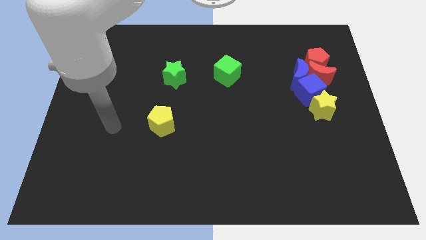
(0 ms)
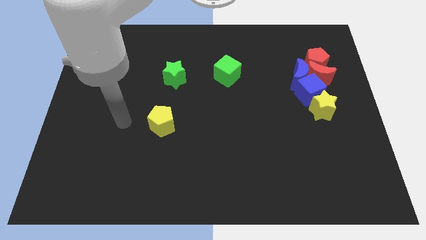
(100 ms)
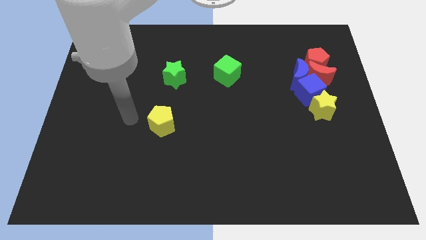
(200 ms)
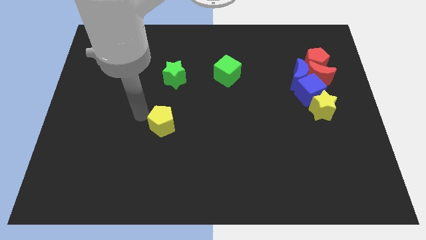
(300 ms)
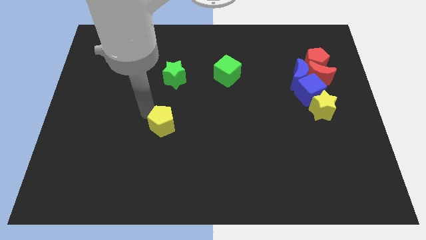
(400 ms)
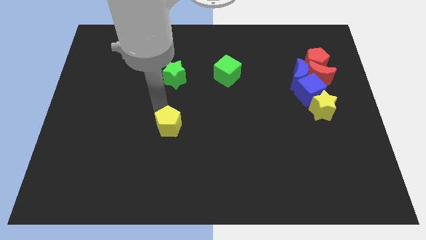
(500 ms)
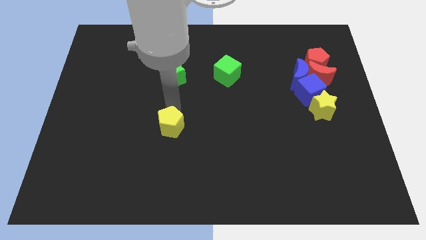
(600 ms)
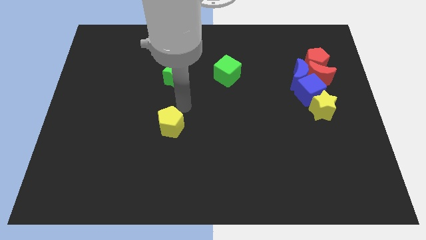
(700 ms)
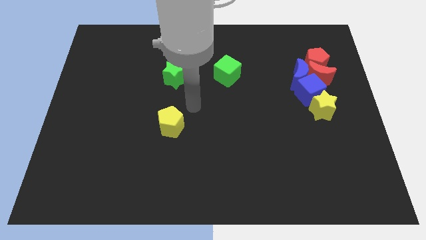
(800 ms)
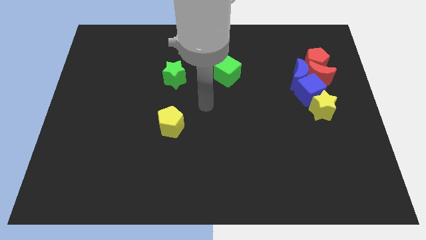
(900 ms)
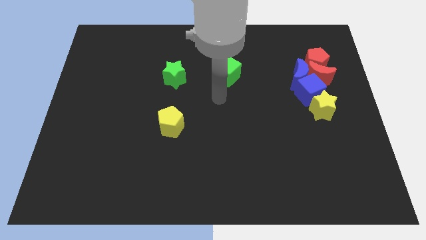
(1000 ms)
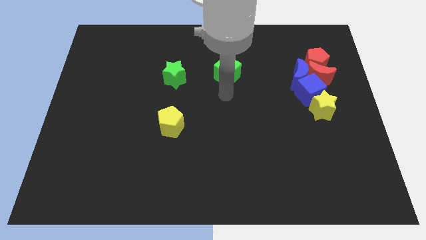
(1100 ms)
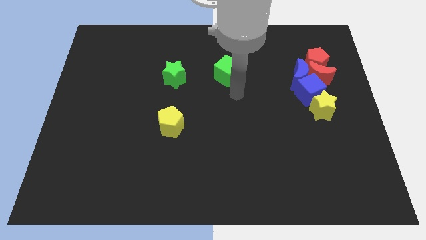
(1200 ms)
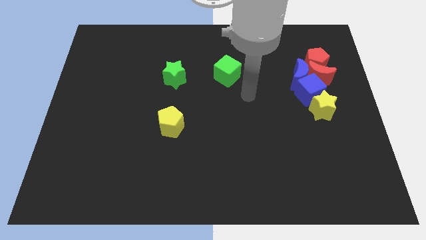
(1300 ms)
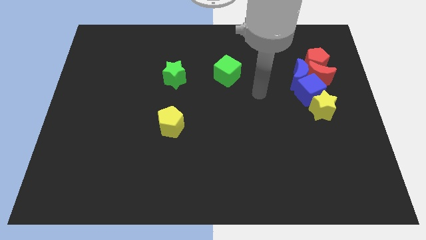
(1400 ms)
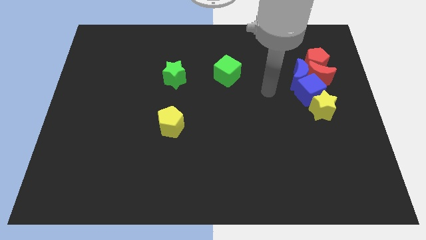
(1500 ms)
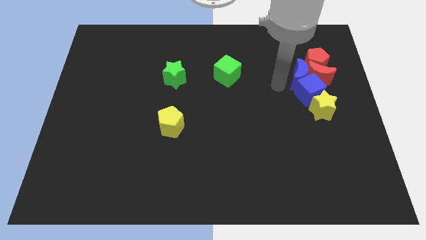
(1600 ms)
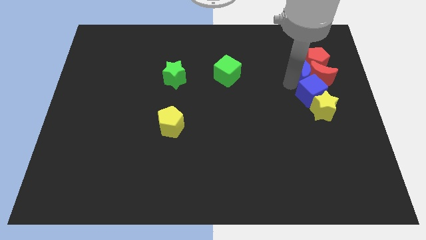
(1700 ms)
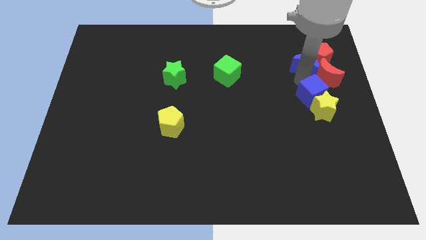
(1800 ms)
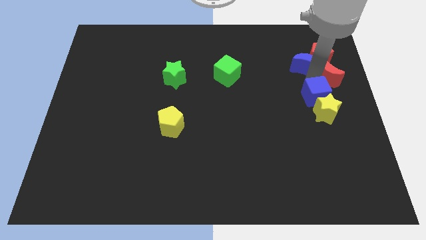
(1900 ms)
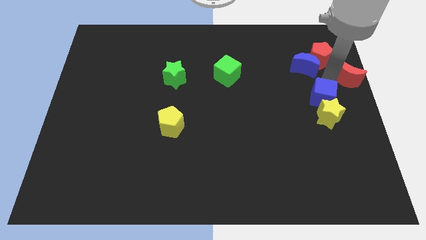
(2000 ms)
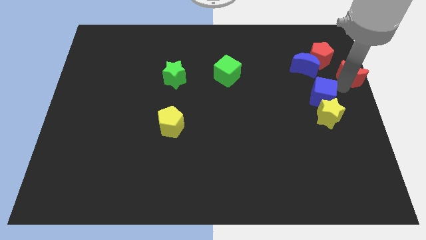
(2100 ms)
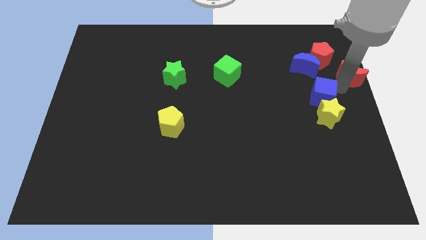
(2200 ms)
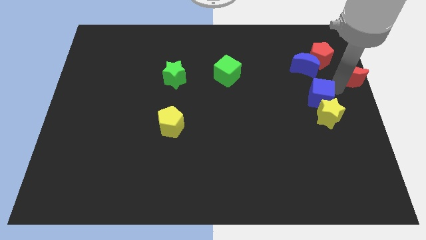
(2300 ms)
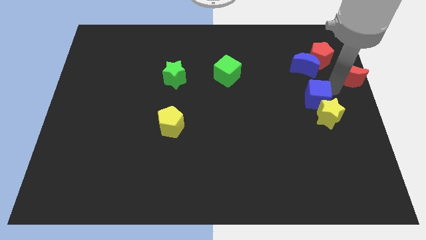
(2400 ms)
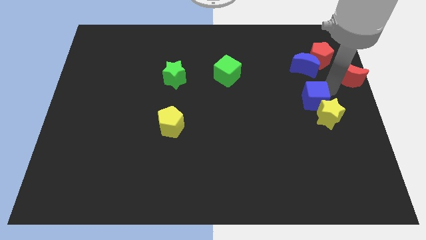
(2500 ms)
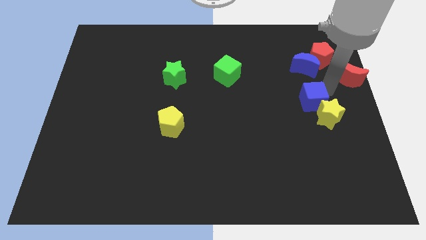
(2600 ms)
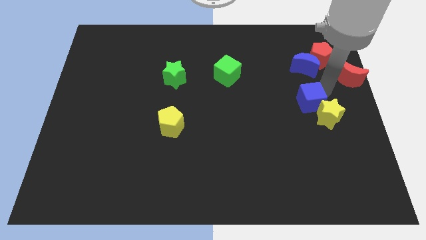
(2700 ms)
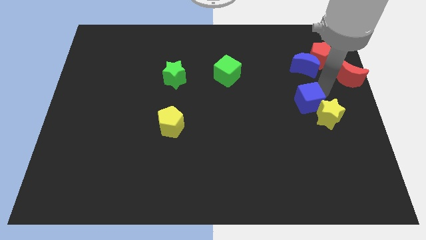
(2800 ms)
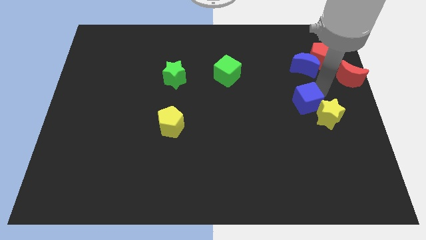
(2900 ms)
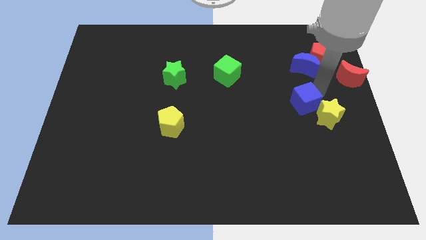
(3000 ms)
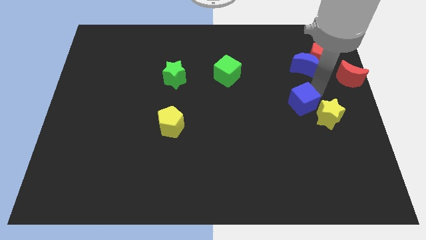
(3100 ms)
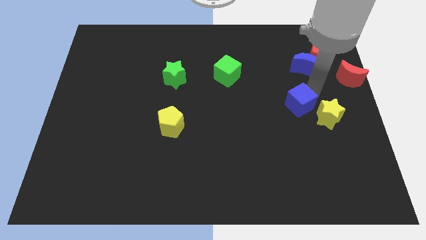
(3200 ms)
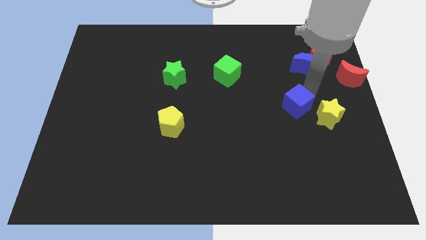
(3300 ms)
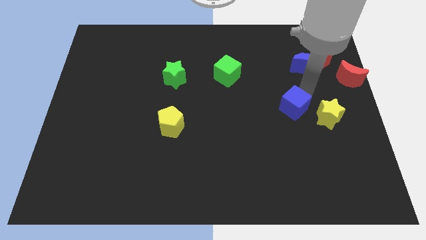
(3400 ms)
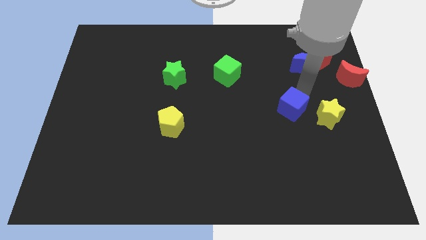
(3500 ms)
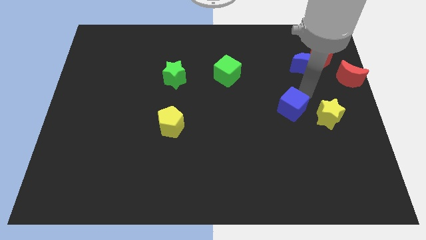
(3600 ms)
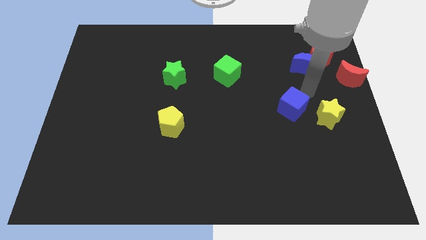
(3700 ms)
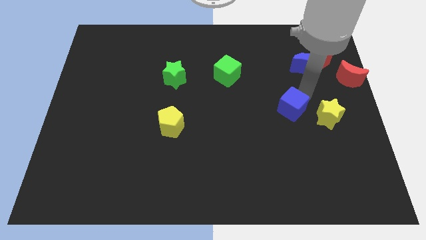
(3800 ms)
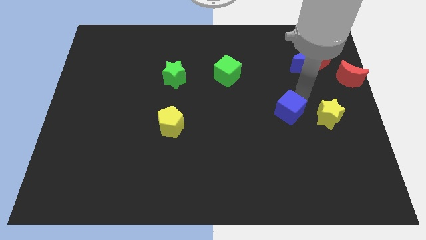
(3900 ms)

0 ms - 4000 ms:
slide the blue cube downwards and left a bit

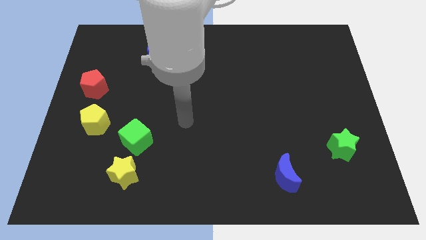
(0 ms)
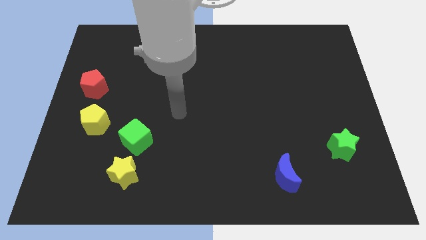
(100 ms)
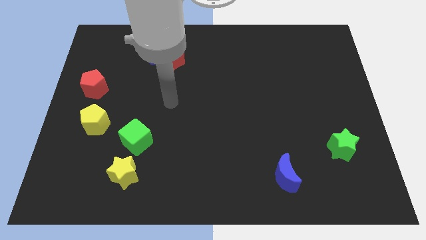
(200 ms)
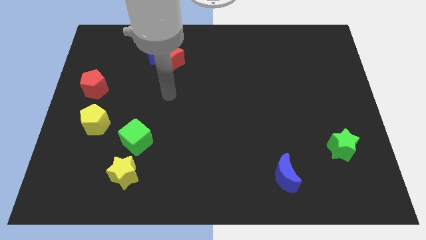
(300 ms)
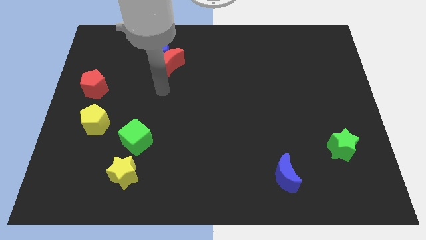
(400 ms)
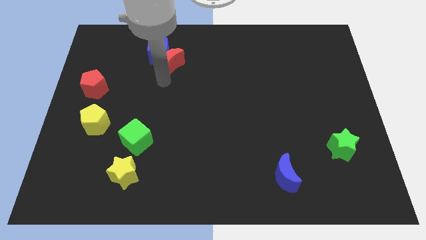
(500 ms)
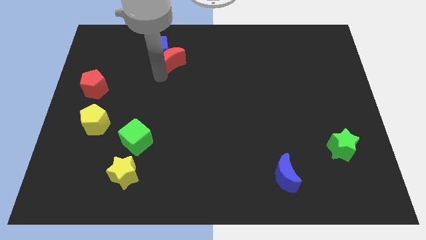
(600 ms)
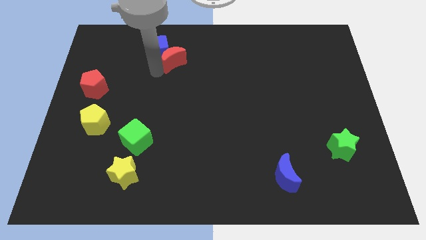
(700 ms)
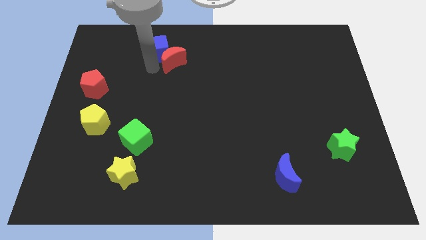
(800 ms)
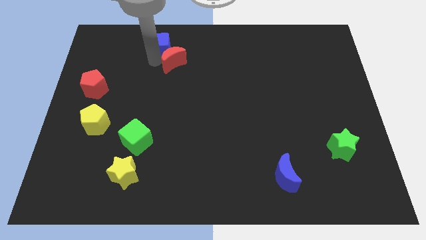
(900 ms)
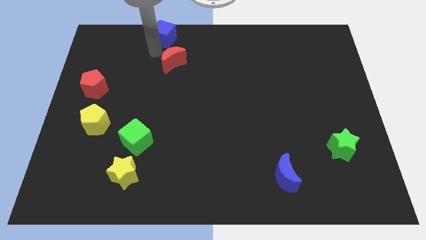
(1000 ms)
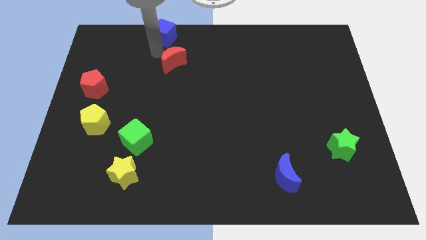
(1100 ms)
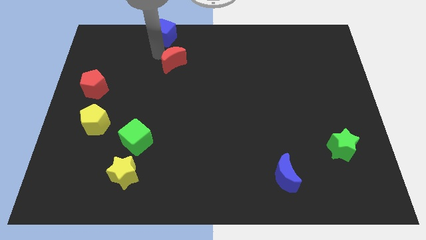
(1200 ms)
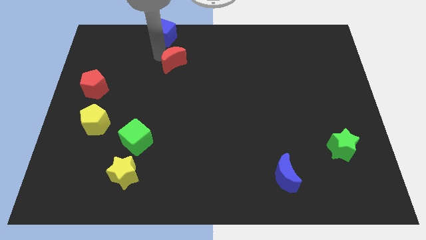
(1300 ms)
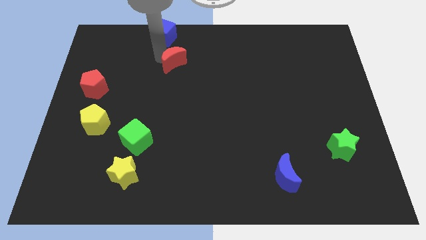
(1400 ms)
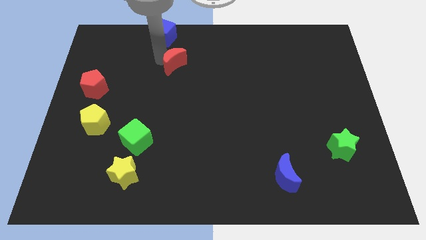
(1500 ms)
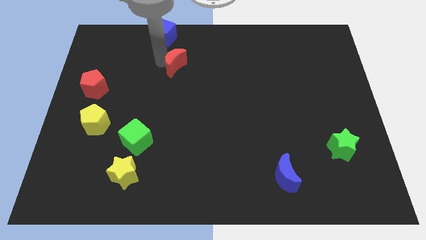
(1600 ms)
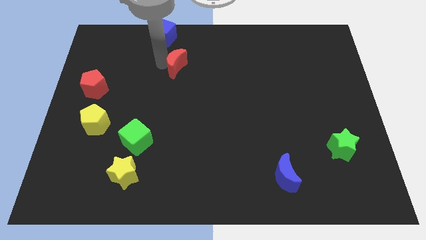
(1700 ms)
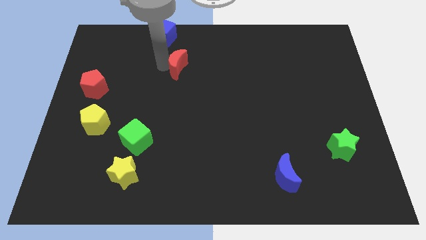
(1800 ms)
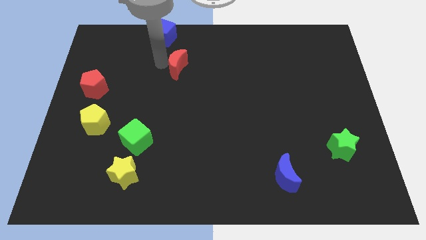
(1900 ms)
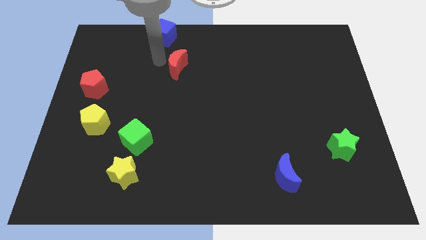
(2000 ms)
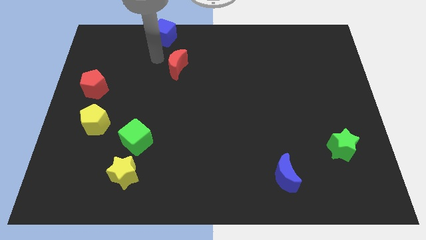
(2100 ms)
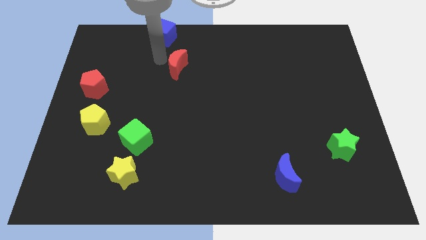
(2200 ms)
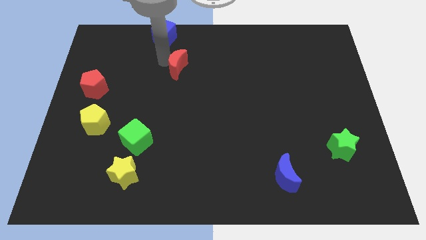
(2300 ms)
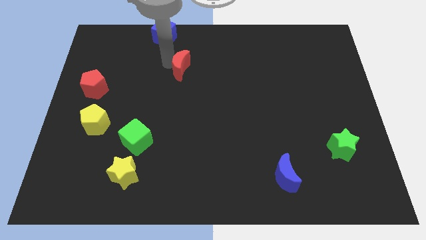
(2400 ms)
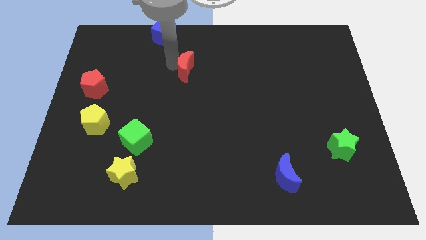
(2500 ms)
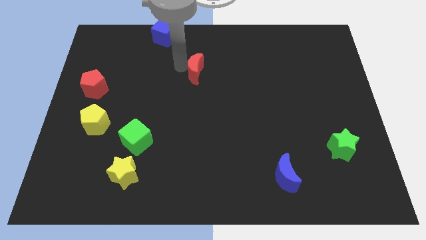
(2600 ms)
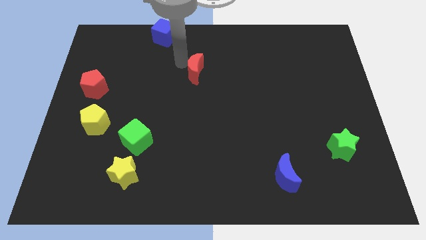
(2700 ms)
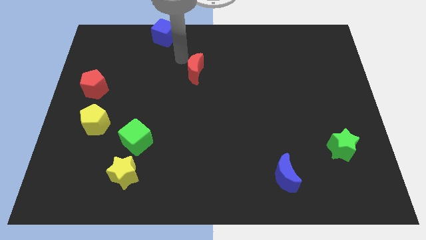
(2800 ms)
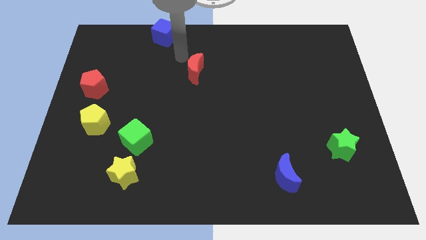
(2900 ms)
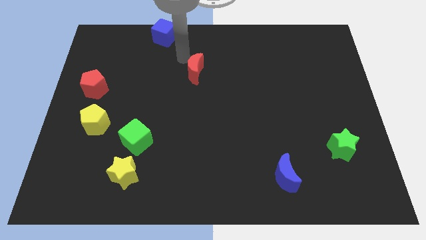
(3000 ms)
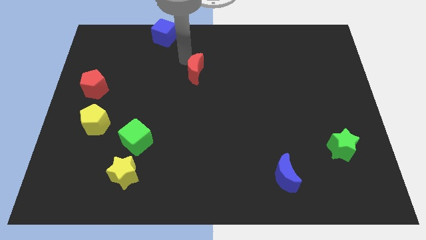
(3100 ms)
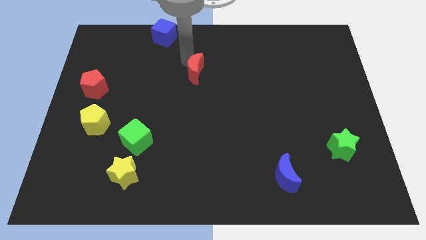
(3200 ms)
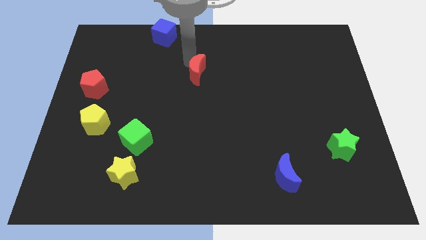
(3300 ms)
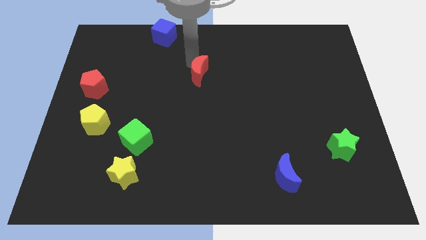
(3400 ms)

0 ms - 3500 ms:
push the red moon down and then to the right somewhat

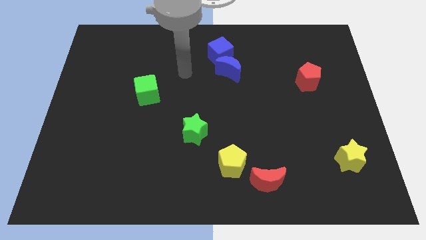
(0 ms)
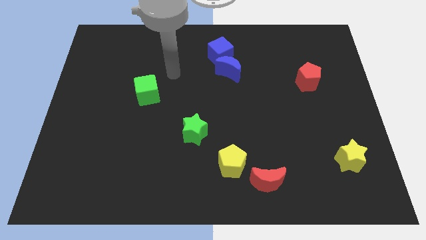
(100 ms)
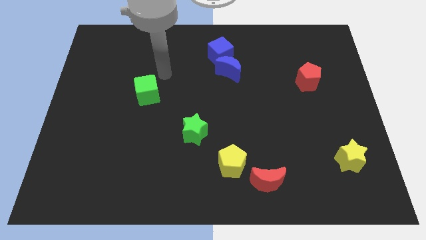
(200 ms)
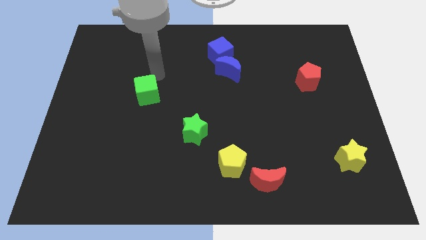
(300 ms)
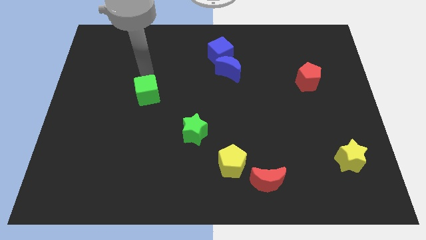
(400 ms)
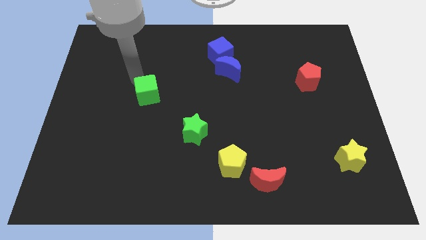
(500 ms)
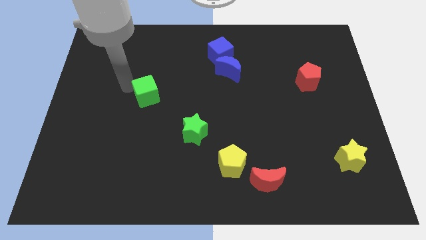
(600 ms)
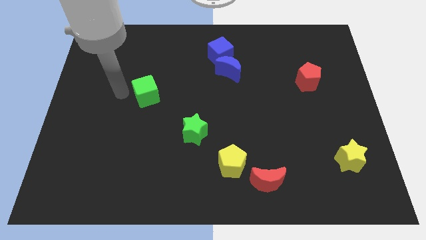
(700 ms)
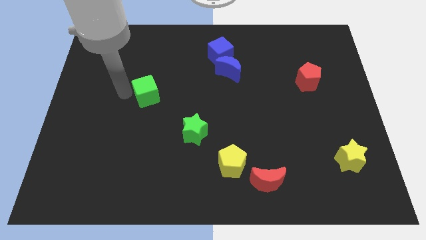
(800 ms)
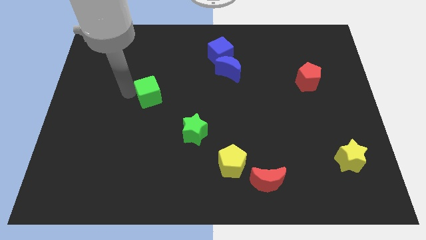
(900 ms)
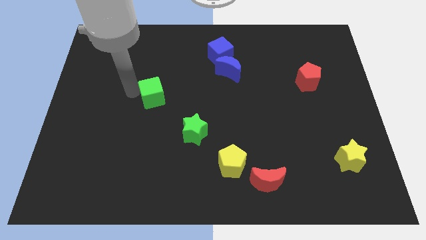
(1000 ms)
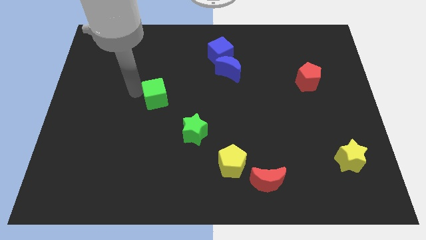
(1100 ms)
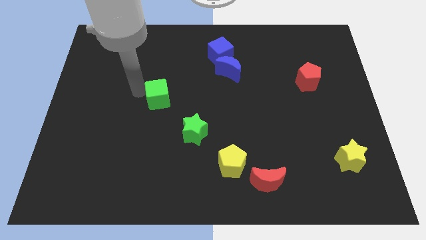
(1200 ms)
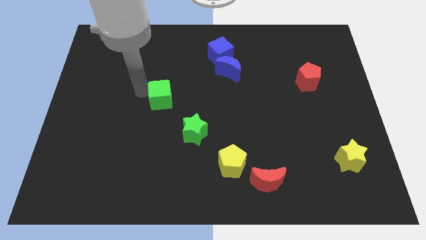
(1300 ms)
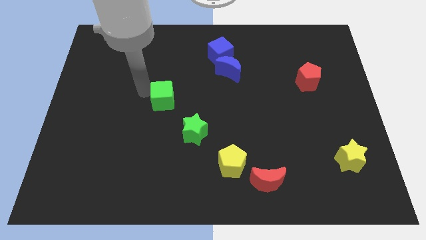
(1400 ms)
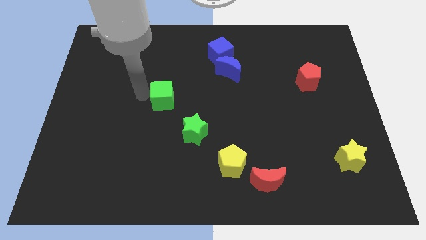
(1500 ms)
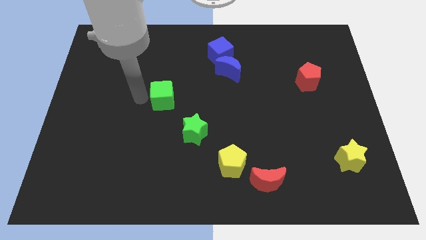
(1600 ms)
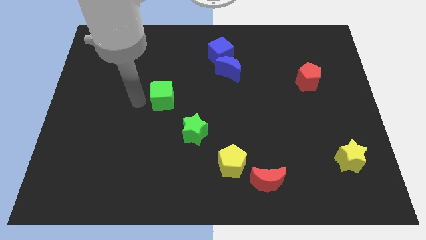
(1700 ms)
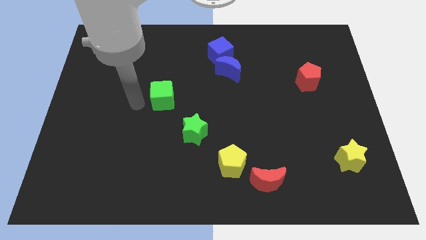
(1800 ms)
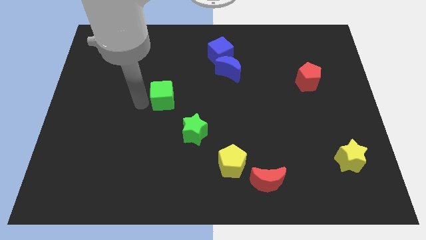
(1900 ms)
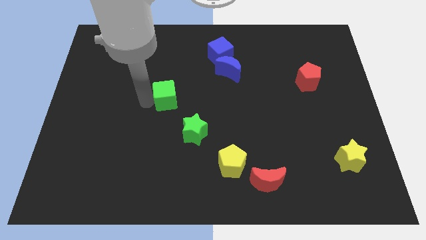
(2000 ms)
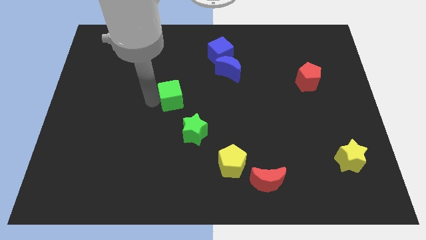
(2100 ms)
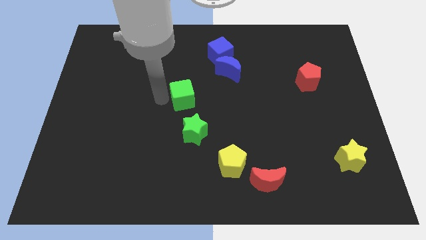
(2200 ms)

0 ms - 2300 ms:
move the green cube slightly to the right
